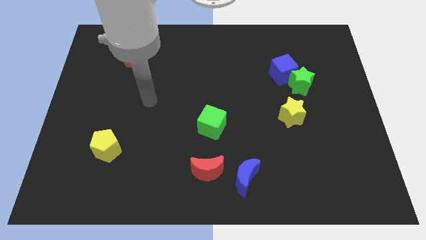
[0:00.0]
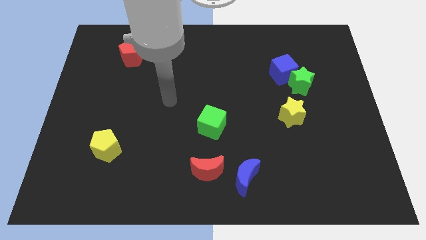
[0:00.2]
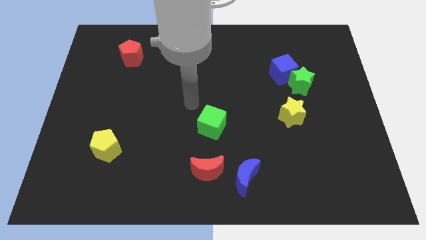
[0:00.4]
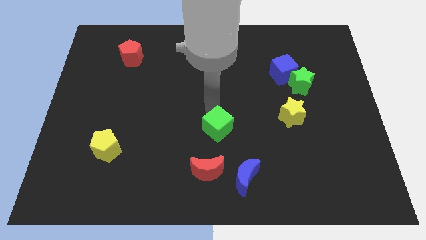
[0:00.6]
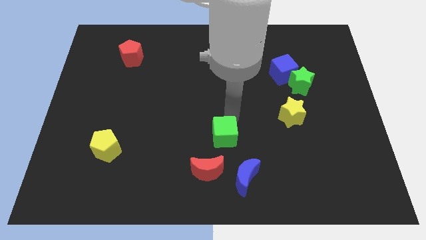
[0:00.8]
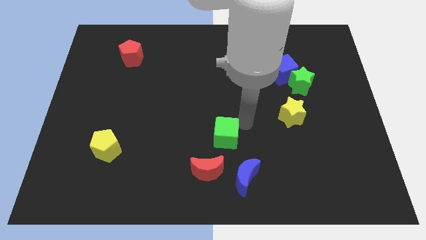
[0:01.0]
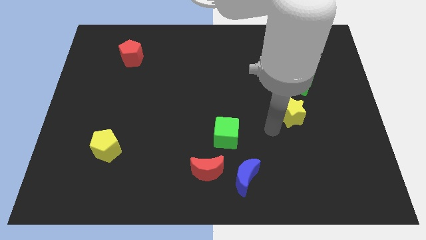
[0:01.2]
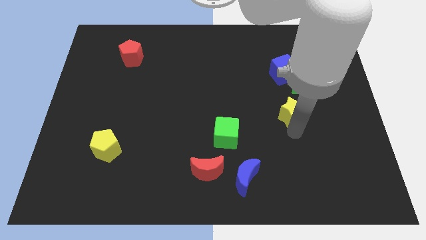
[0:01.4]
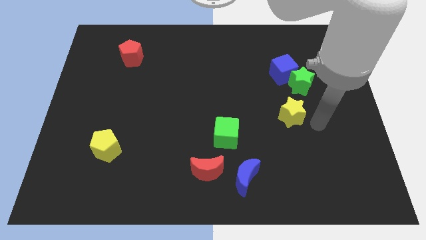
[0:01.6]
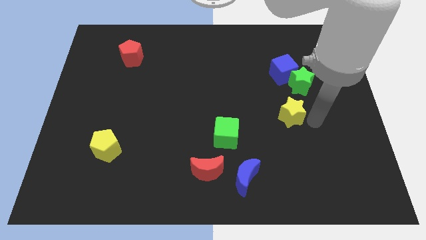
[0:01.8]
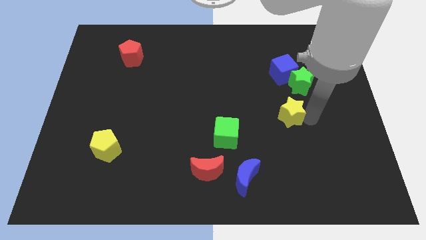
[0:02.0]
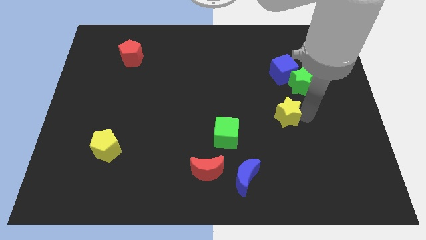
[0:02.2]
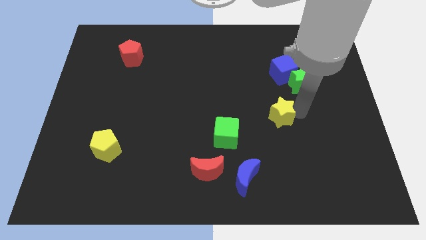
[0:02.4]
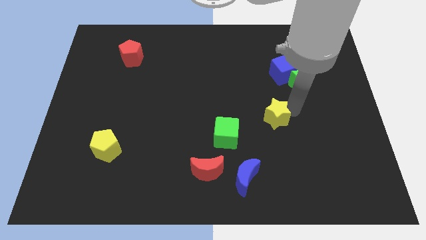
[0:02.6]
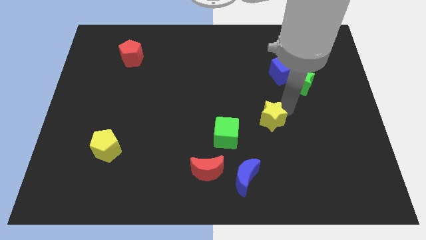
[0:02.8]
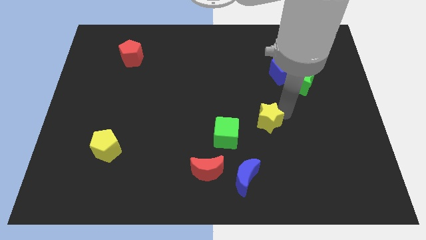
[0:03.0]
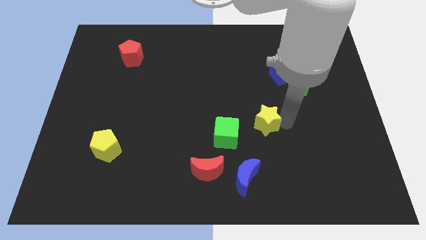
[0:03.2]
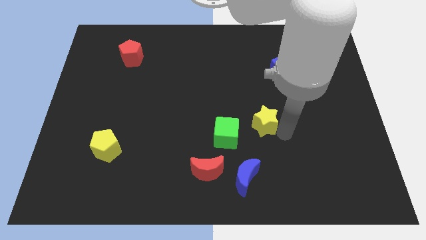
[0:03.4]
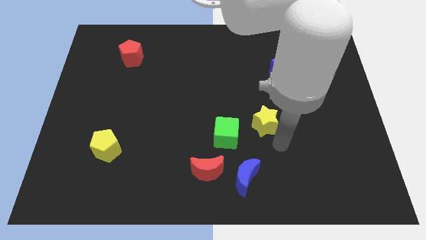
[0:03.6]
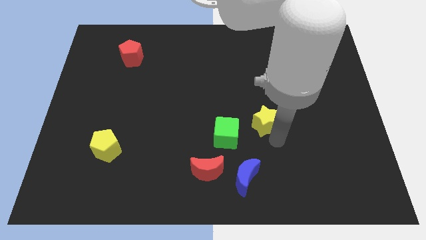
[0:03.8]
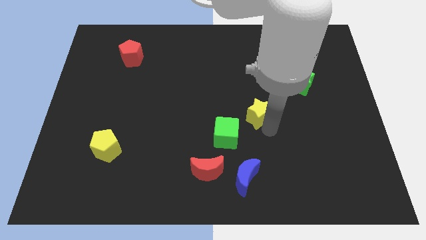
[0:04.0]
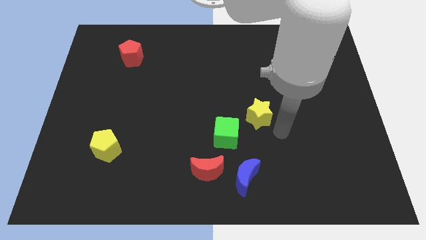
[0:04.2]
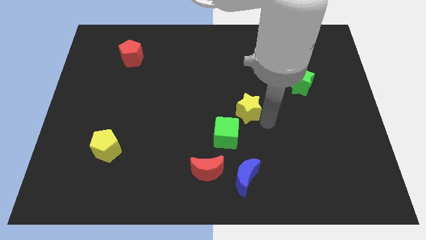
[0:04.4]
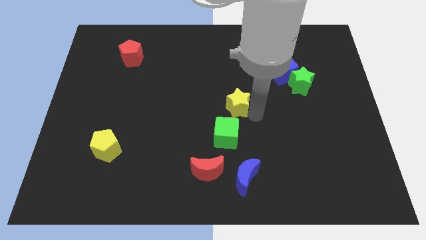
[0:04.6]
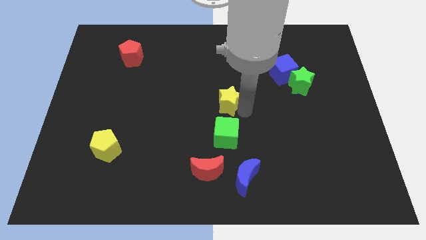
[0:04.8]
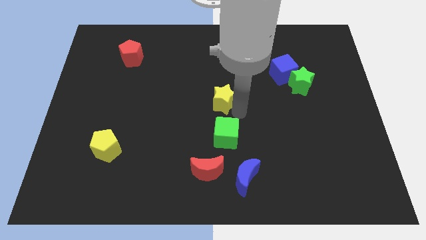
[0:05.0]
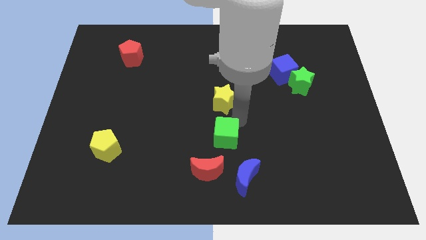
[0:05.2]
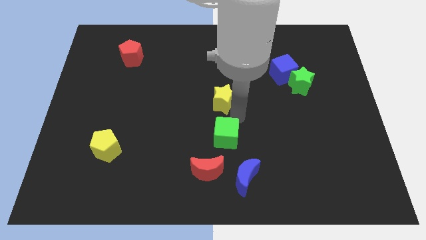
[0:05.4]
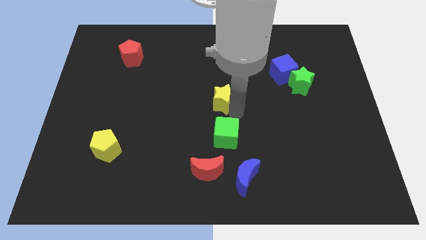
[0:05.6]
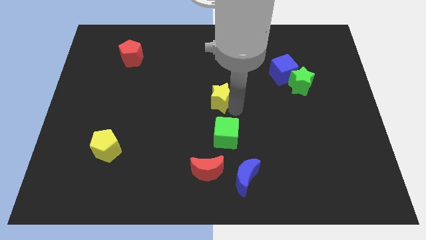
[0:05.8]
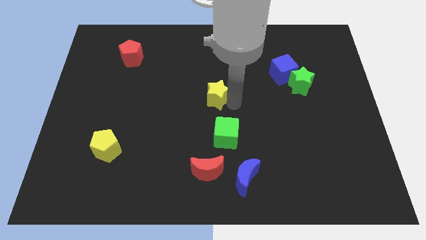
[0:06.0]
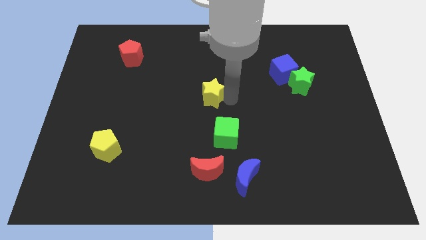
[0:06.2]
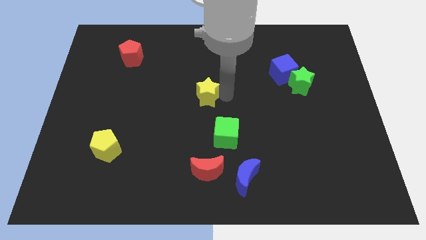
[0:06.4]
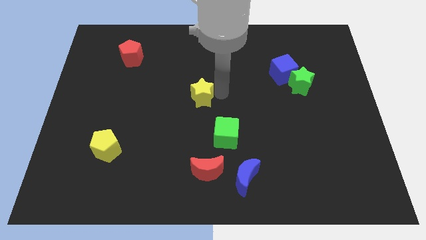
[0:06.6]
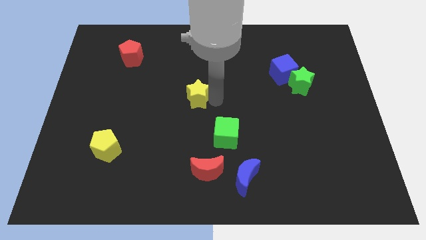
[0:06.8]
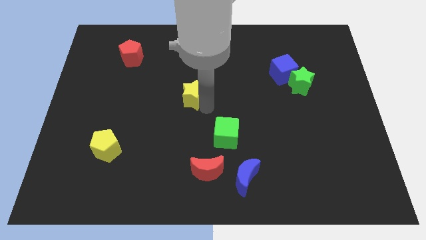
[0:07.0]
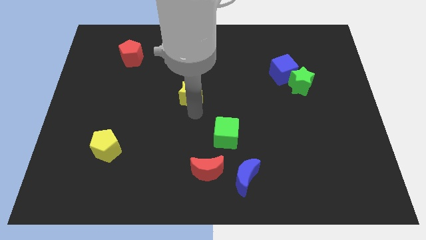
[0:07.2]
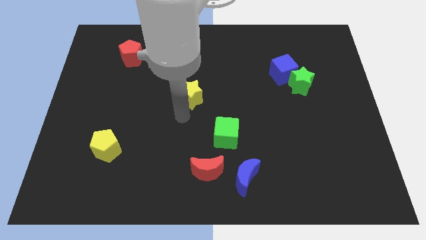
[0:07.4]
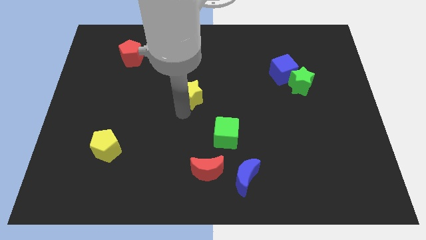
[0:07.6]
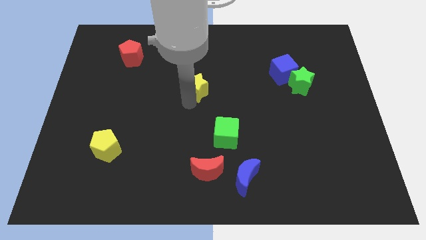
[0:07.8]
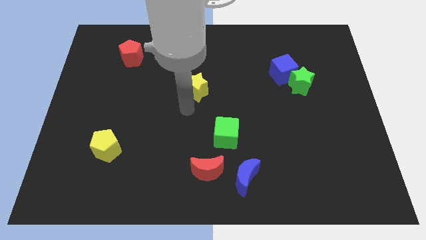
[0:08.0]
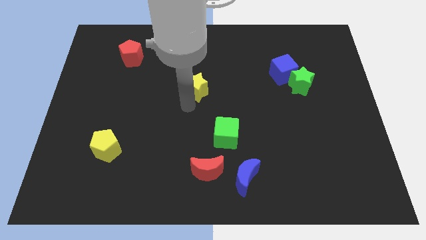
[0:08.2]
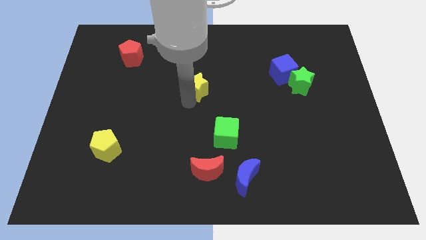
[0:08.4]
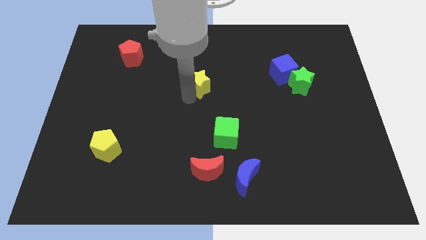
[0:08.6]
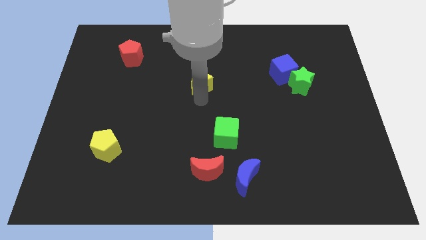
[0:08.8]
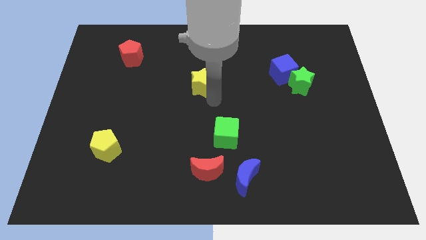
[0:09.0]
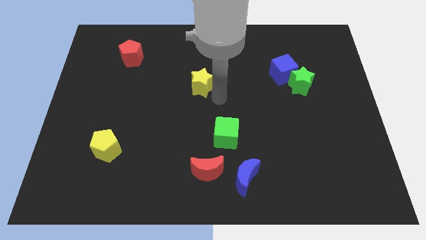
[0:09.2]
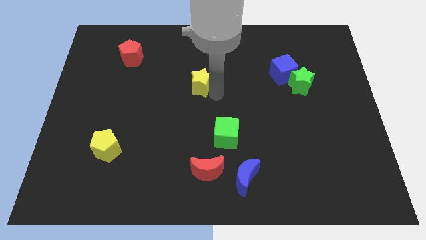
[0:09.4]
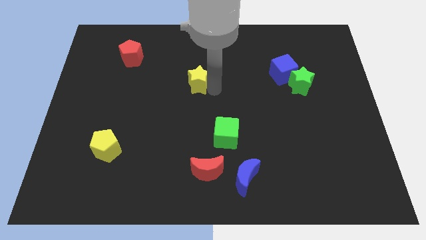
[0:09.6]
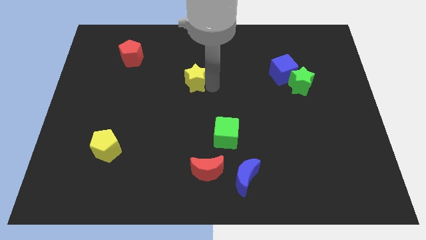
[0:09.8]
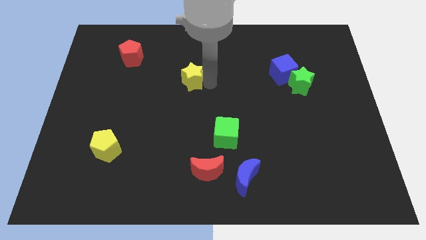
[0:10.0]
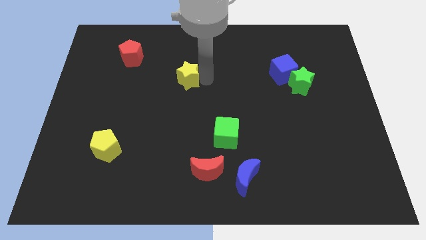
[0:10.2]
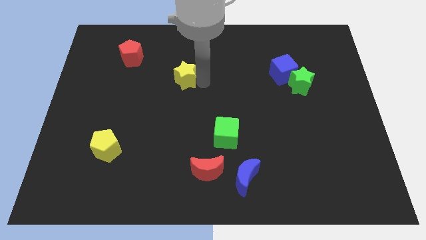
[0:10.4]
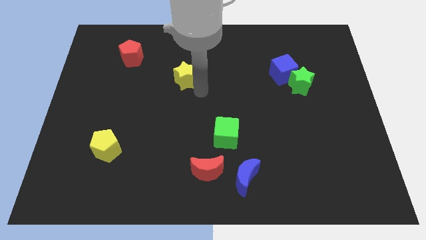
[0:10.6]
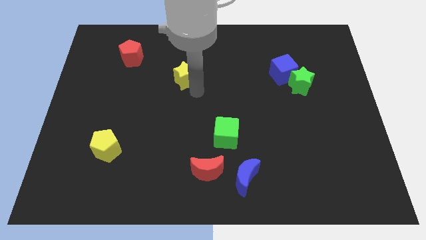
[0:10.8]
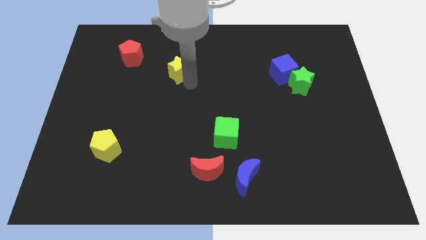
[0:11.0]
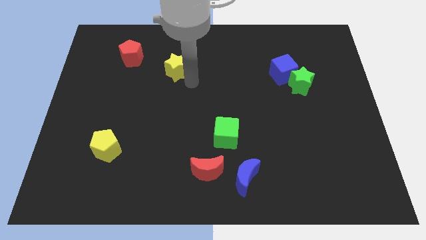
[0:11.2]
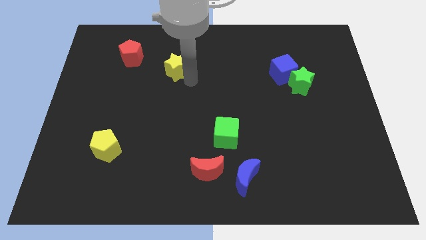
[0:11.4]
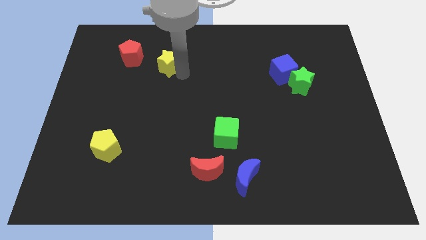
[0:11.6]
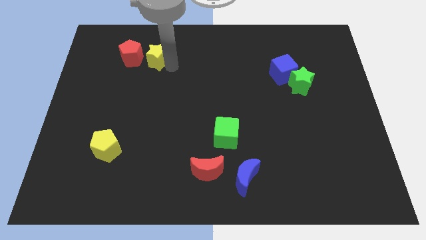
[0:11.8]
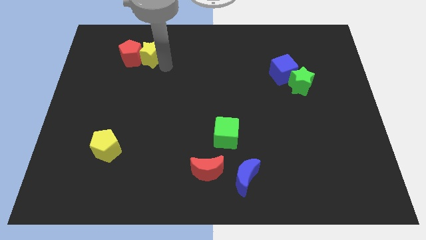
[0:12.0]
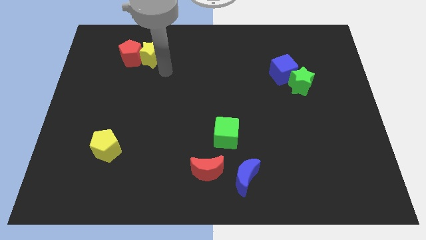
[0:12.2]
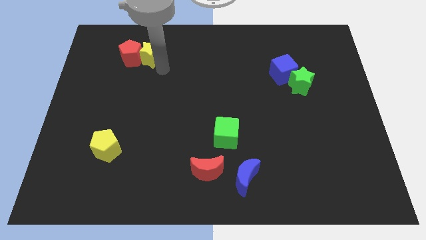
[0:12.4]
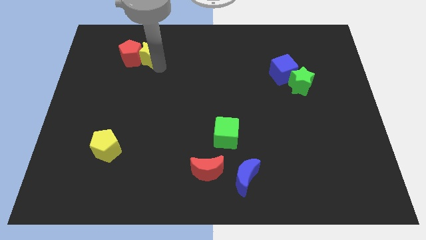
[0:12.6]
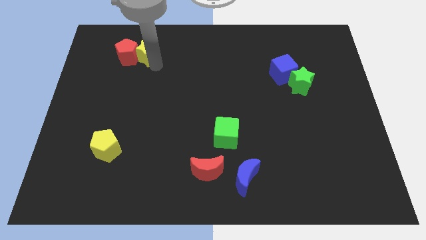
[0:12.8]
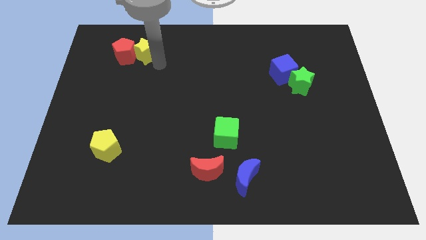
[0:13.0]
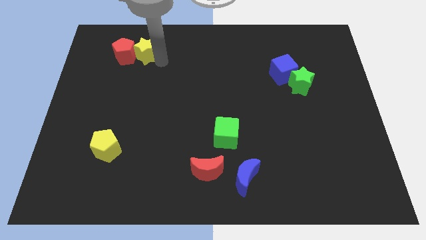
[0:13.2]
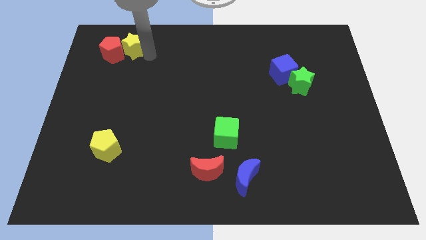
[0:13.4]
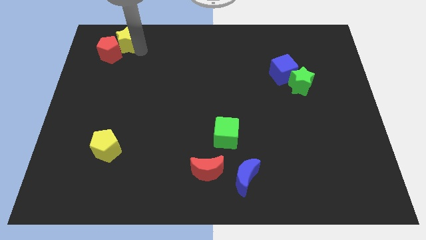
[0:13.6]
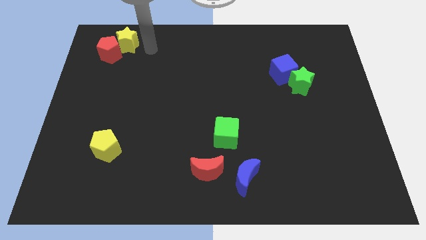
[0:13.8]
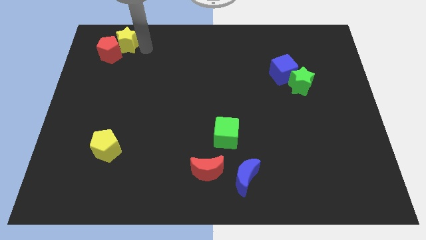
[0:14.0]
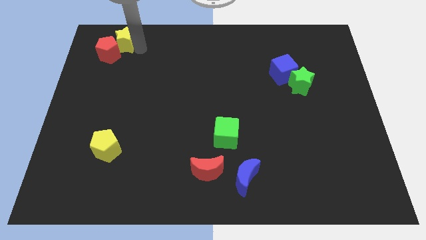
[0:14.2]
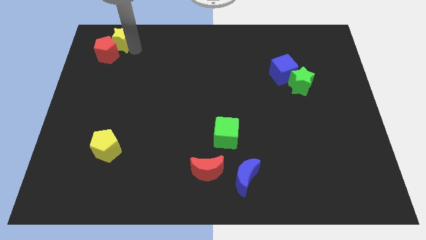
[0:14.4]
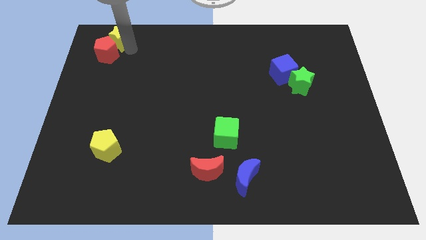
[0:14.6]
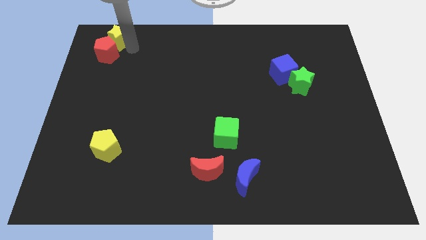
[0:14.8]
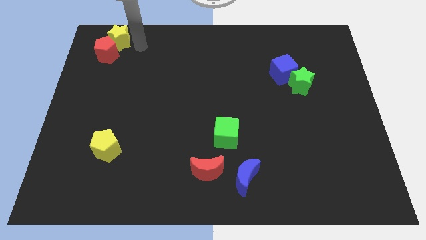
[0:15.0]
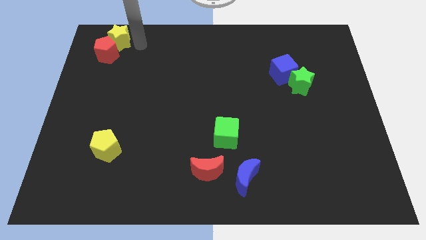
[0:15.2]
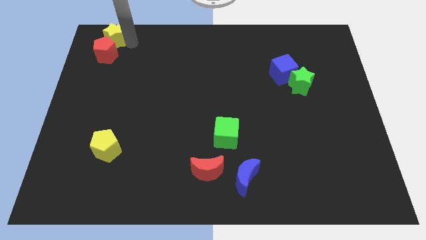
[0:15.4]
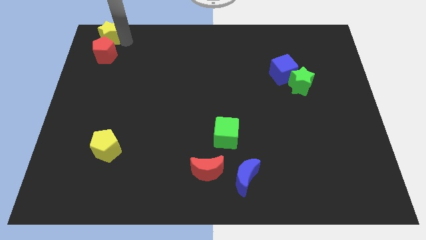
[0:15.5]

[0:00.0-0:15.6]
slide the yellow star to the upper left corner
